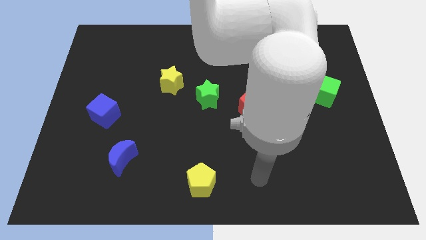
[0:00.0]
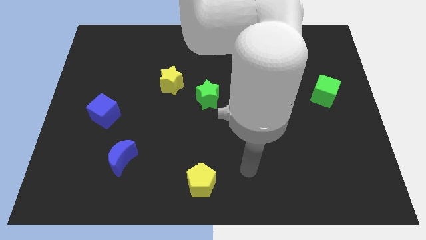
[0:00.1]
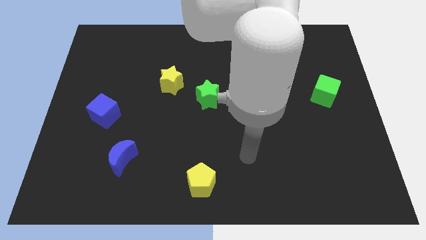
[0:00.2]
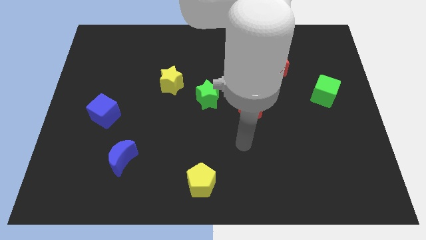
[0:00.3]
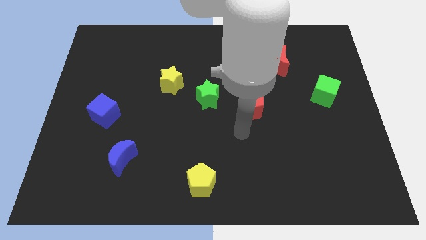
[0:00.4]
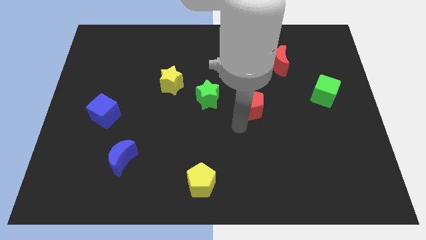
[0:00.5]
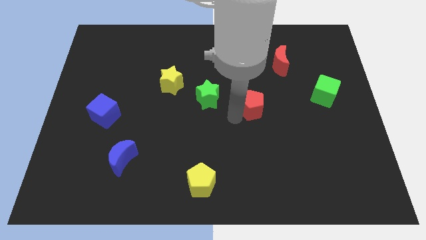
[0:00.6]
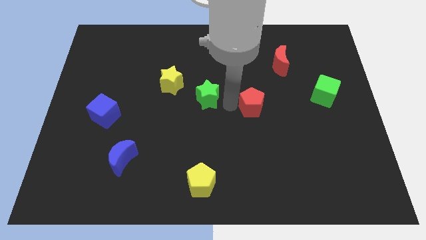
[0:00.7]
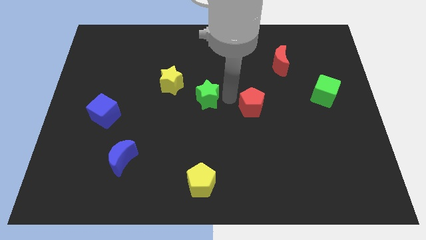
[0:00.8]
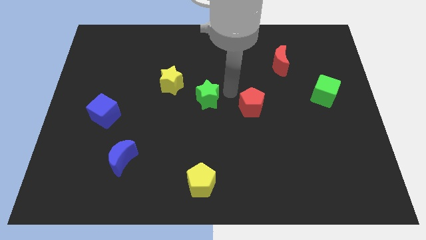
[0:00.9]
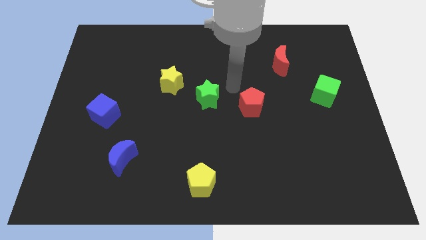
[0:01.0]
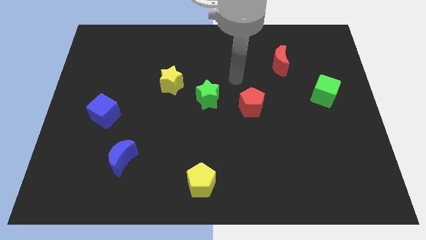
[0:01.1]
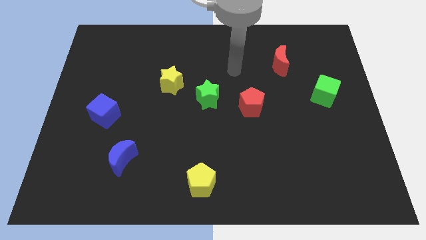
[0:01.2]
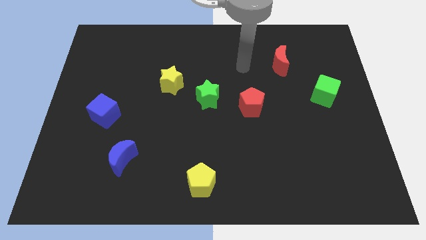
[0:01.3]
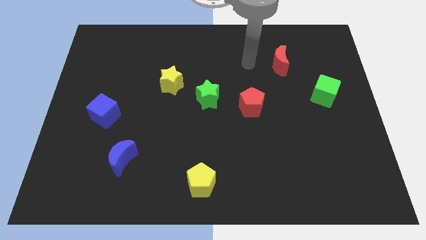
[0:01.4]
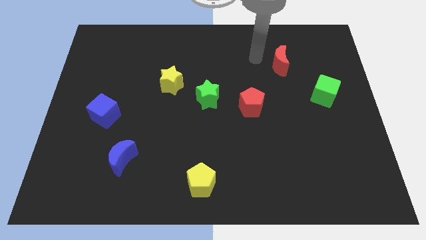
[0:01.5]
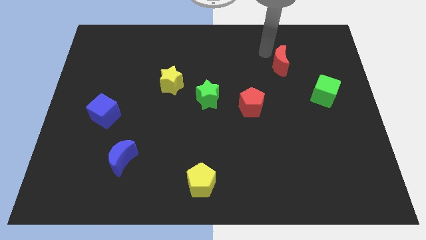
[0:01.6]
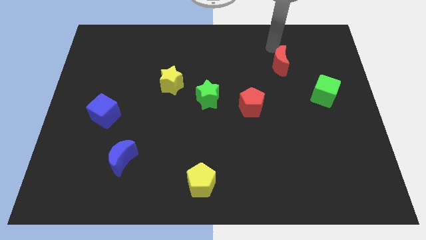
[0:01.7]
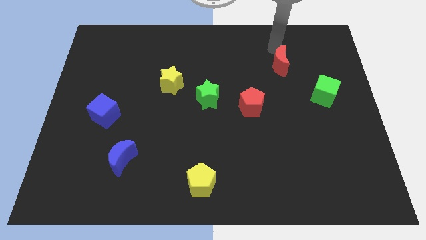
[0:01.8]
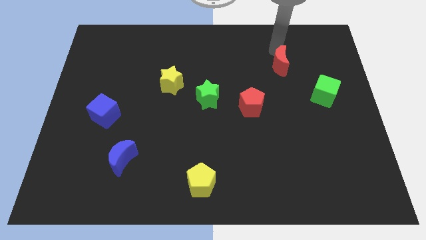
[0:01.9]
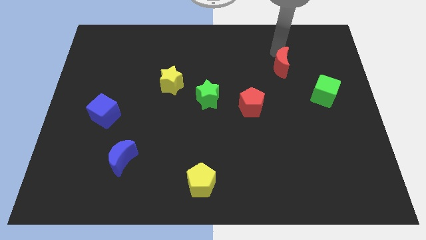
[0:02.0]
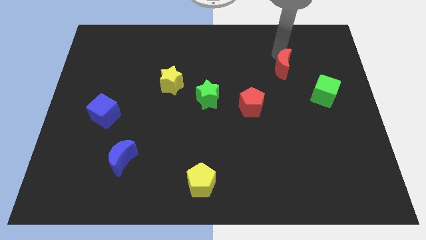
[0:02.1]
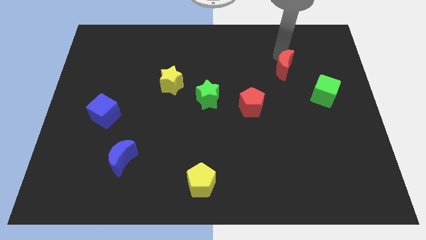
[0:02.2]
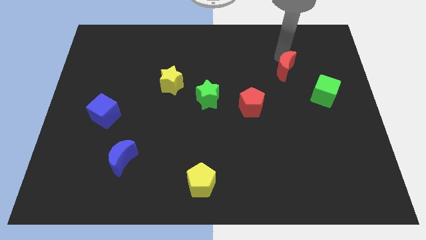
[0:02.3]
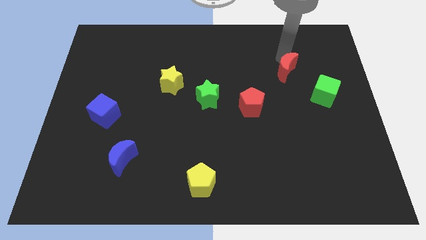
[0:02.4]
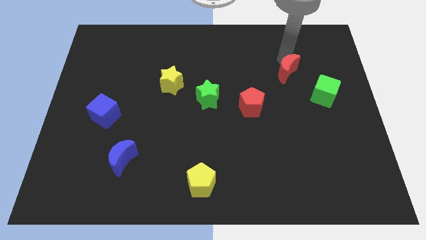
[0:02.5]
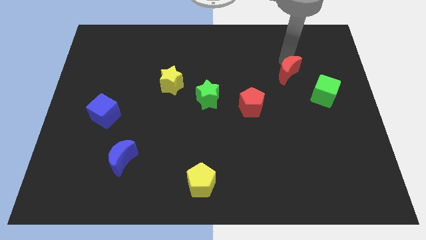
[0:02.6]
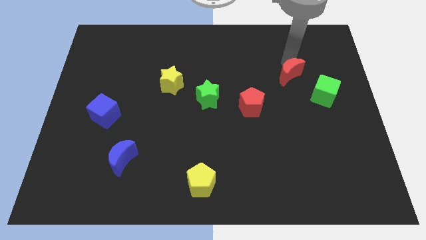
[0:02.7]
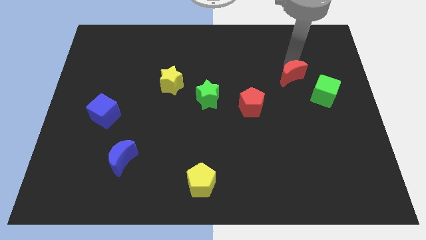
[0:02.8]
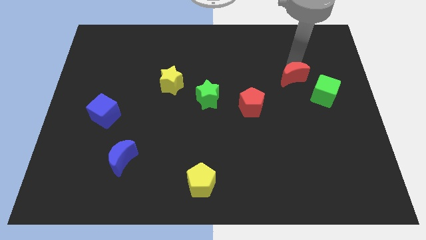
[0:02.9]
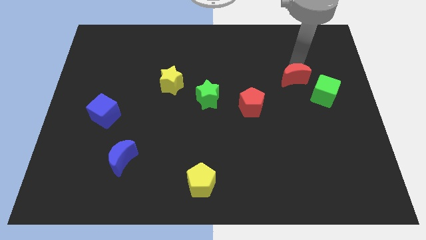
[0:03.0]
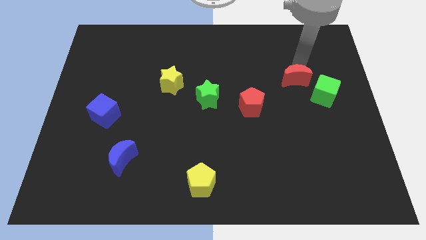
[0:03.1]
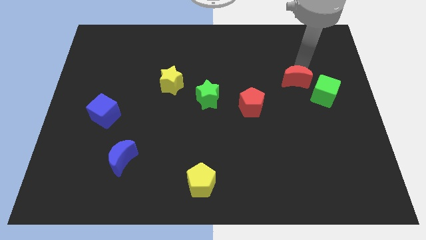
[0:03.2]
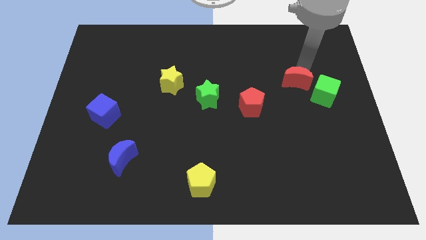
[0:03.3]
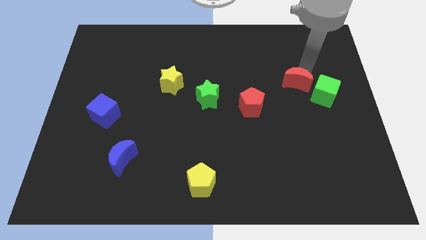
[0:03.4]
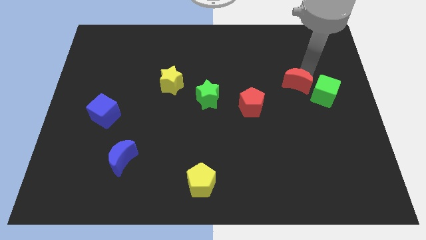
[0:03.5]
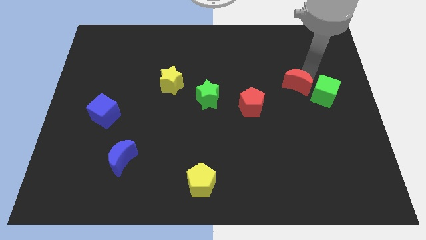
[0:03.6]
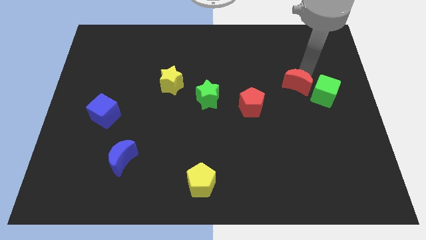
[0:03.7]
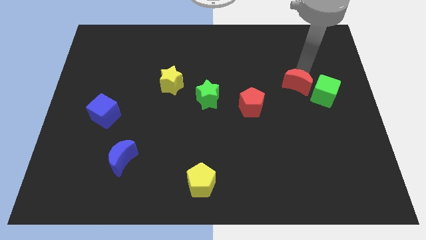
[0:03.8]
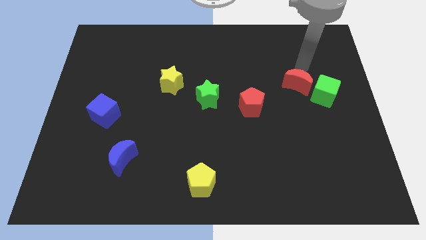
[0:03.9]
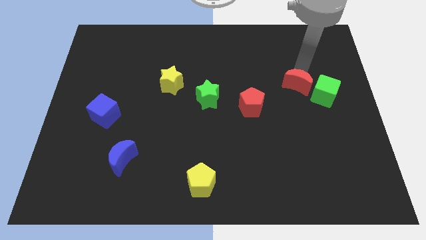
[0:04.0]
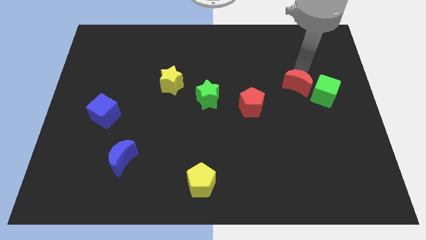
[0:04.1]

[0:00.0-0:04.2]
slide the red moon a little bit down

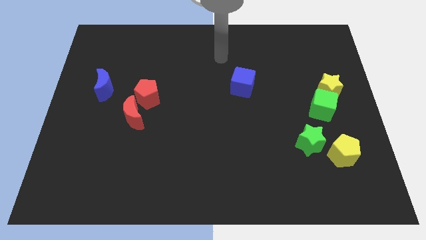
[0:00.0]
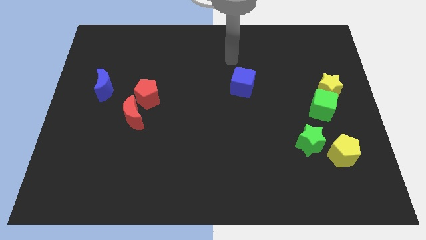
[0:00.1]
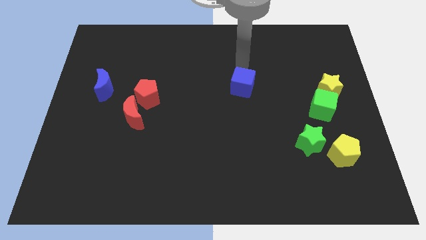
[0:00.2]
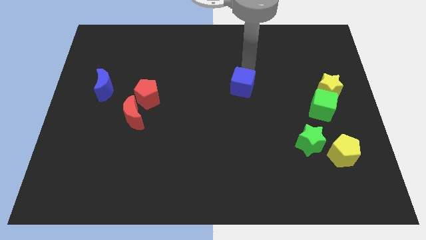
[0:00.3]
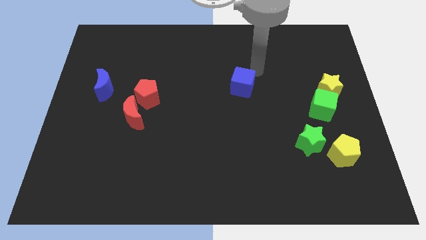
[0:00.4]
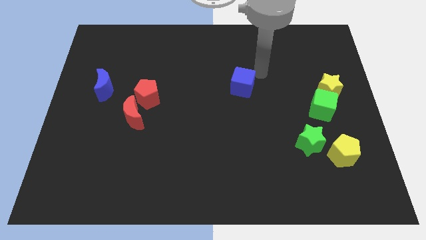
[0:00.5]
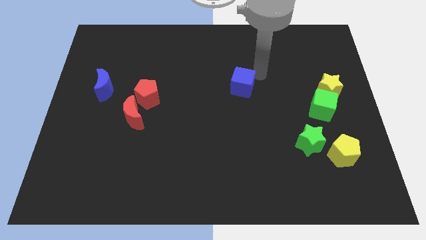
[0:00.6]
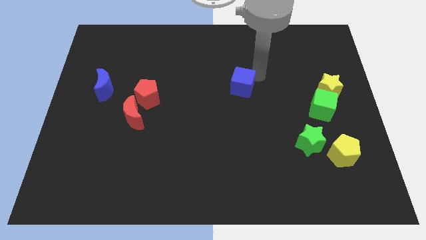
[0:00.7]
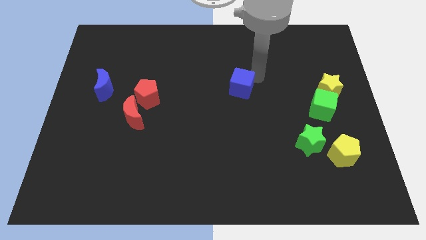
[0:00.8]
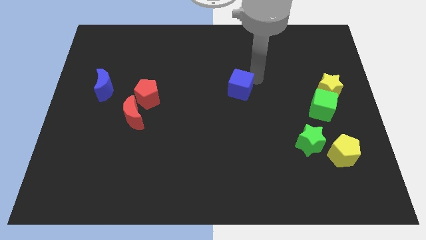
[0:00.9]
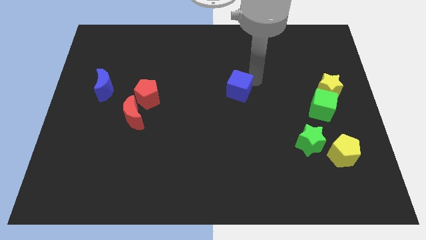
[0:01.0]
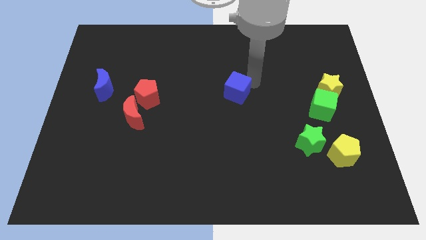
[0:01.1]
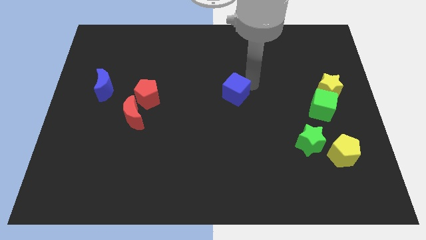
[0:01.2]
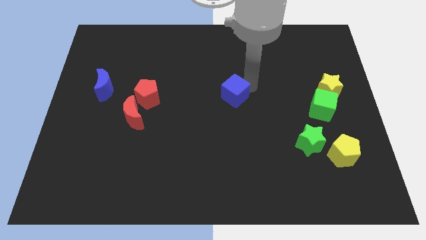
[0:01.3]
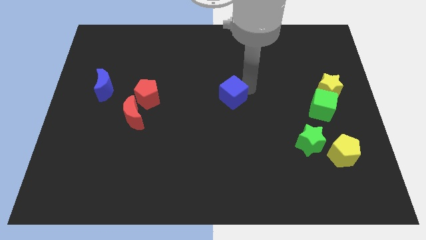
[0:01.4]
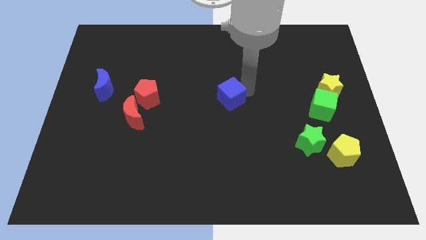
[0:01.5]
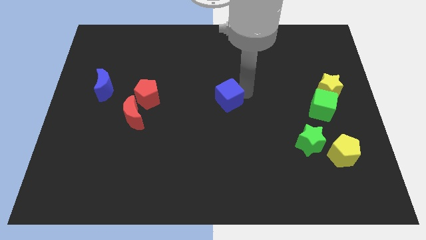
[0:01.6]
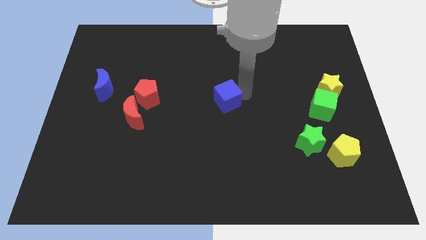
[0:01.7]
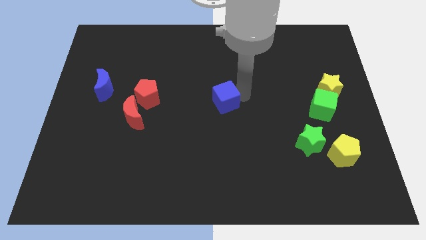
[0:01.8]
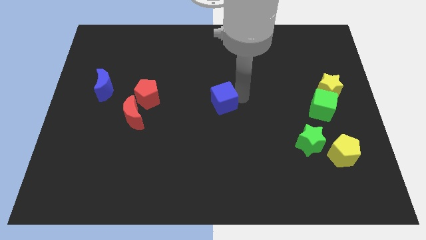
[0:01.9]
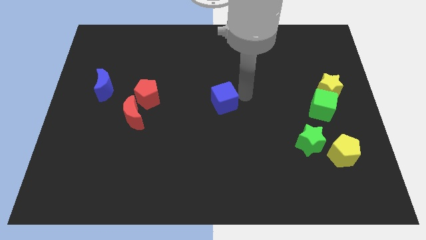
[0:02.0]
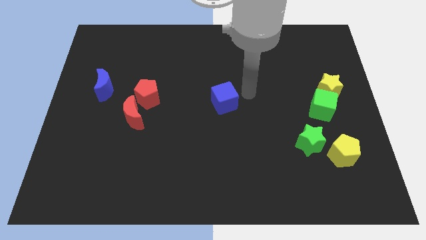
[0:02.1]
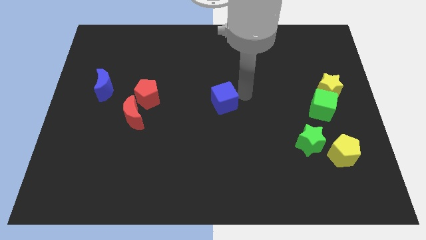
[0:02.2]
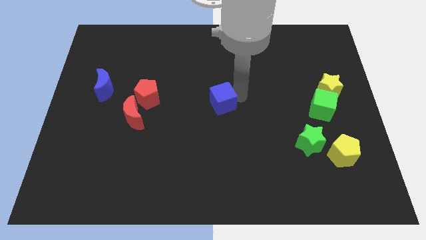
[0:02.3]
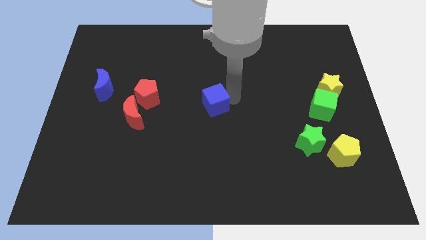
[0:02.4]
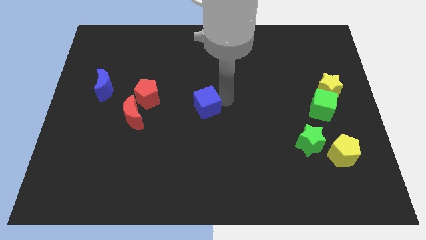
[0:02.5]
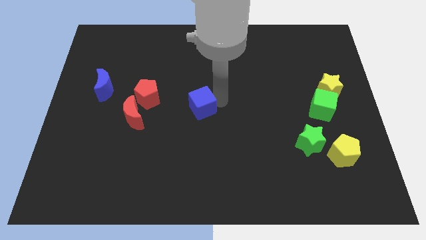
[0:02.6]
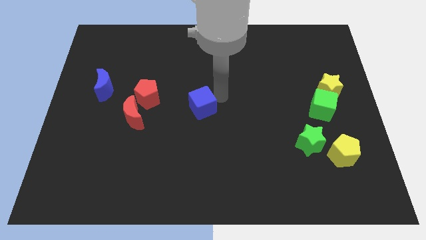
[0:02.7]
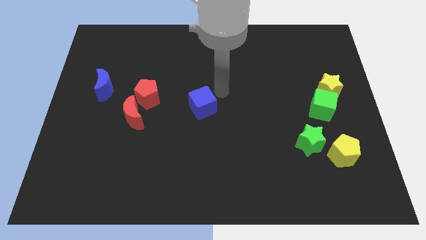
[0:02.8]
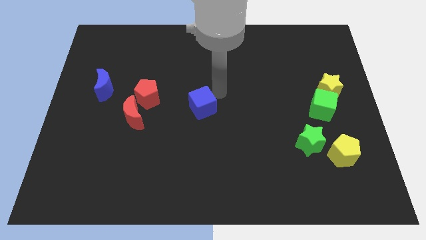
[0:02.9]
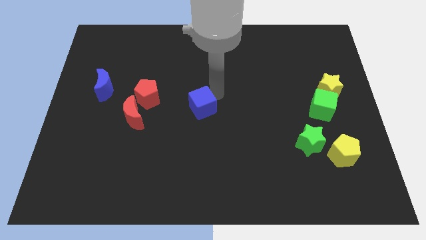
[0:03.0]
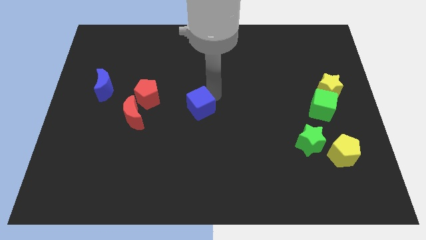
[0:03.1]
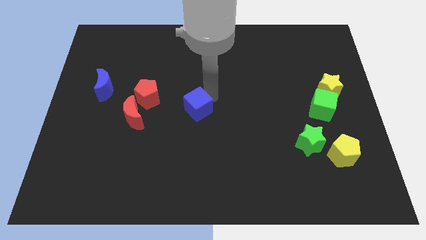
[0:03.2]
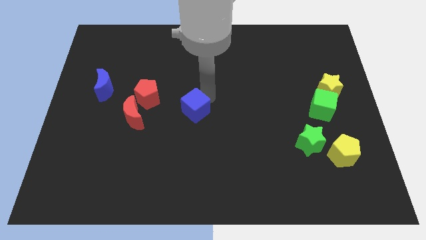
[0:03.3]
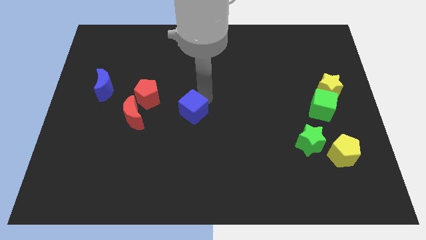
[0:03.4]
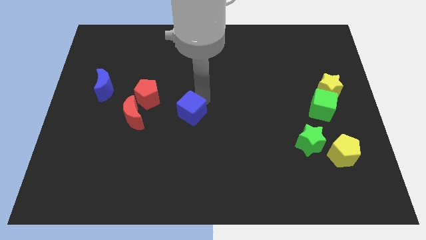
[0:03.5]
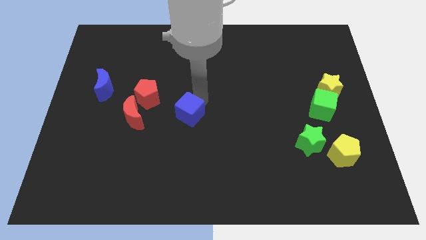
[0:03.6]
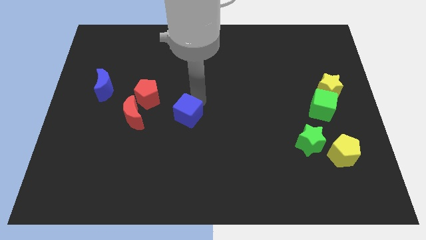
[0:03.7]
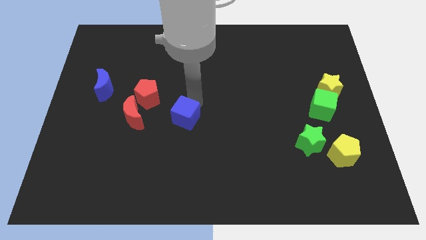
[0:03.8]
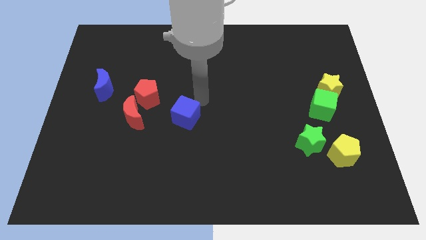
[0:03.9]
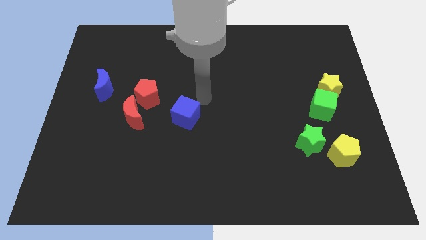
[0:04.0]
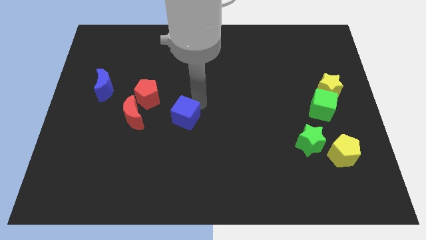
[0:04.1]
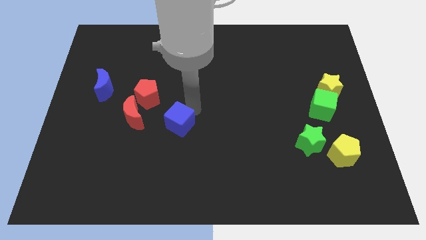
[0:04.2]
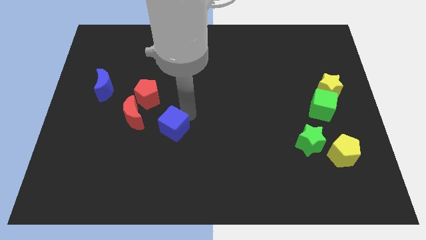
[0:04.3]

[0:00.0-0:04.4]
push the blue cube downwards and left

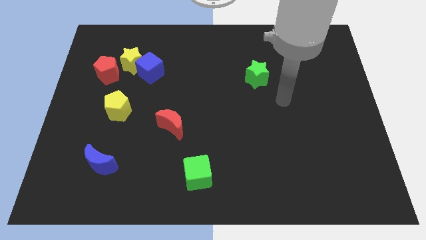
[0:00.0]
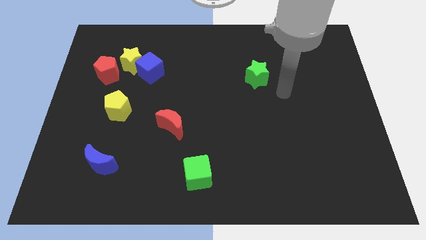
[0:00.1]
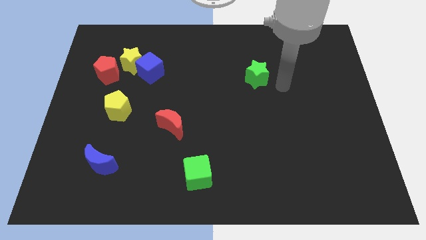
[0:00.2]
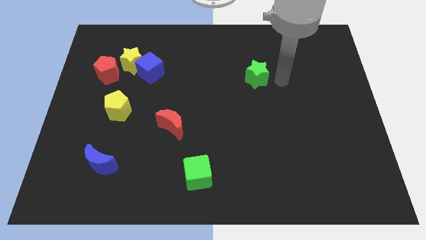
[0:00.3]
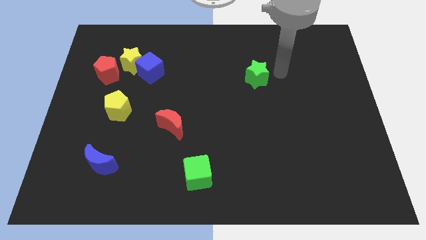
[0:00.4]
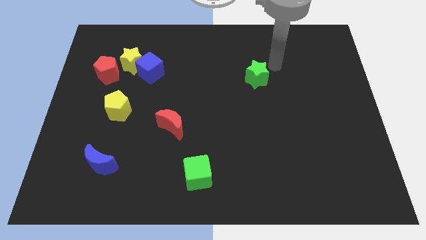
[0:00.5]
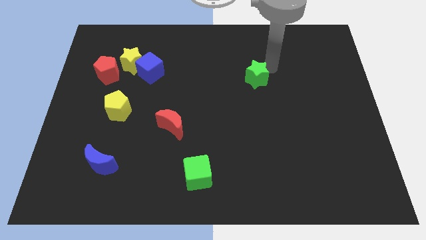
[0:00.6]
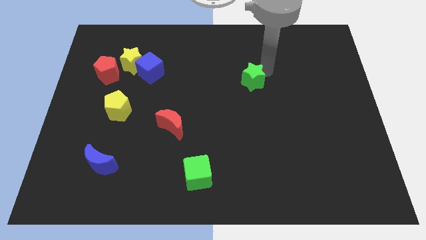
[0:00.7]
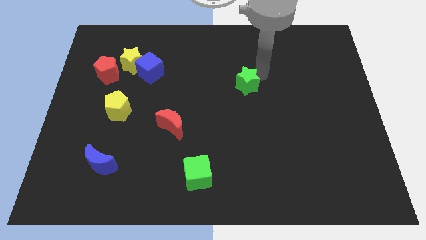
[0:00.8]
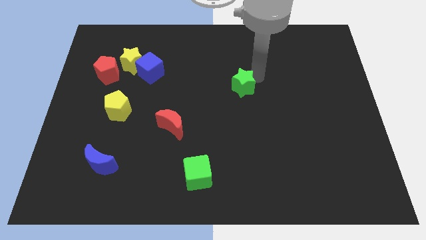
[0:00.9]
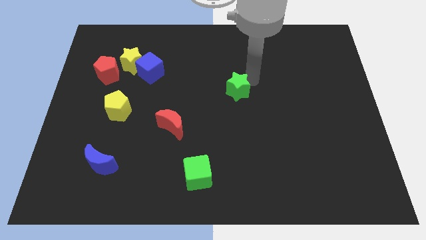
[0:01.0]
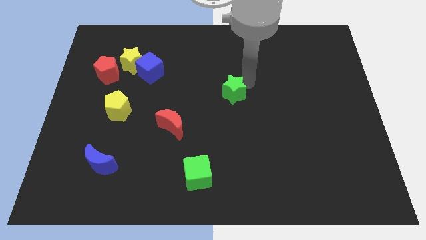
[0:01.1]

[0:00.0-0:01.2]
push the green star downwards and left a little
